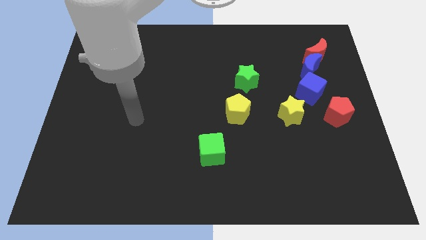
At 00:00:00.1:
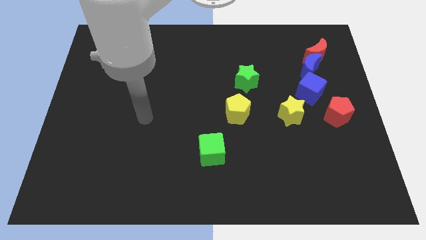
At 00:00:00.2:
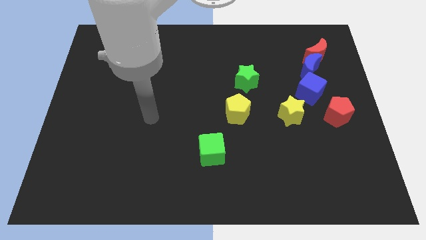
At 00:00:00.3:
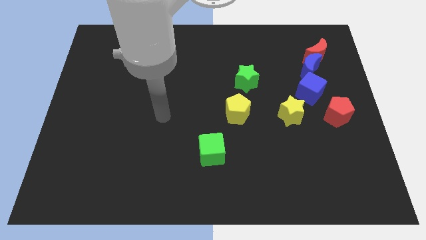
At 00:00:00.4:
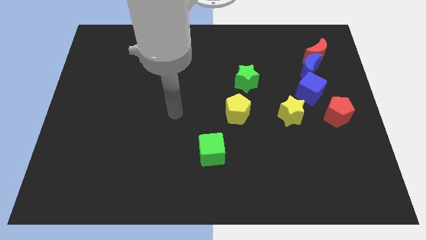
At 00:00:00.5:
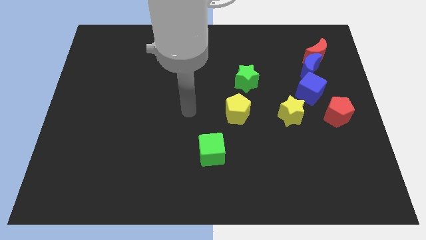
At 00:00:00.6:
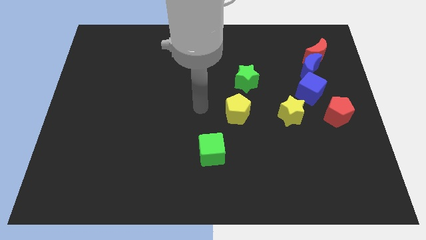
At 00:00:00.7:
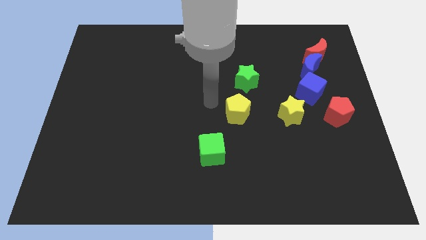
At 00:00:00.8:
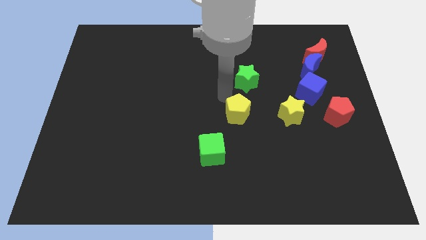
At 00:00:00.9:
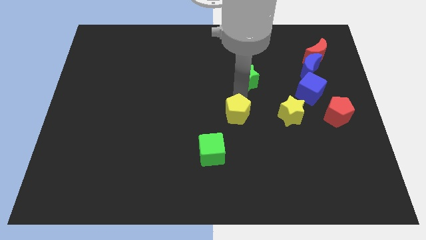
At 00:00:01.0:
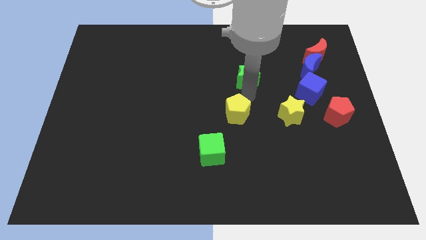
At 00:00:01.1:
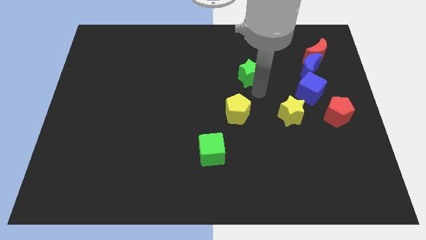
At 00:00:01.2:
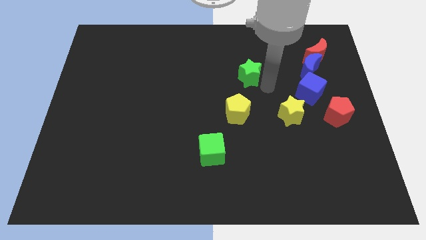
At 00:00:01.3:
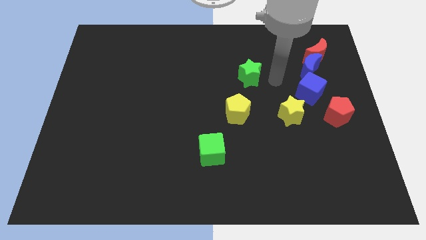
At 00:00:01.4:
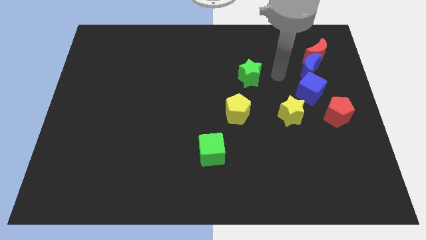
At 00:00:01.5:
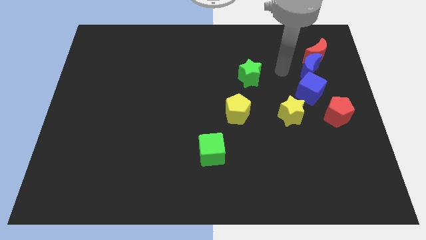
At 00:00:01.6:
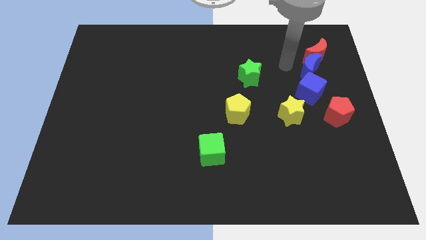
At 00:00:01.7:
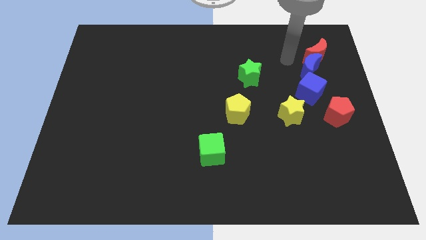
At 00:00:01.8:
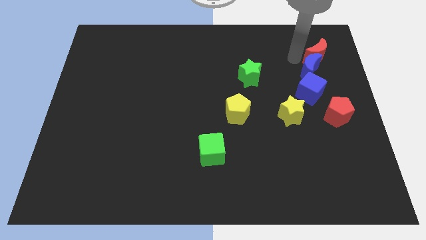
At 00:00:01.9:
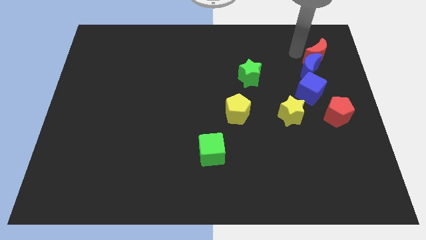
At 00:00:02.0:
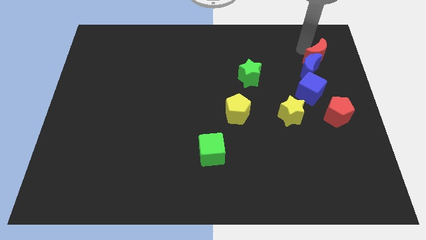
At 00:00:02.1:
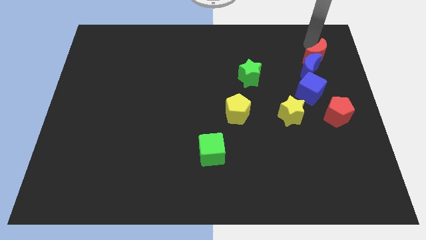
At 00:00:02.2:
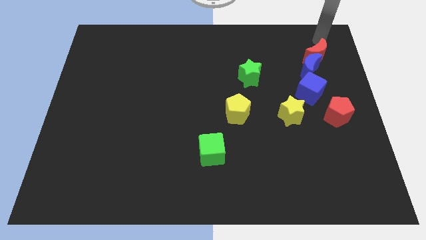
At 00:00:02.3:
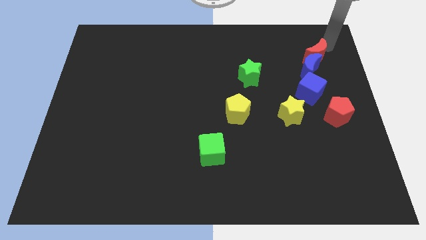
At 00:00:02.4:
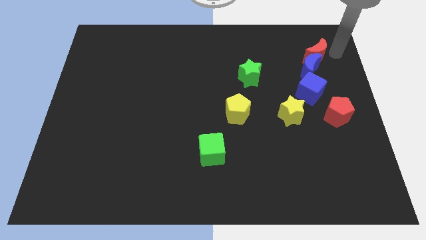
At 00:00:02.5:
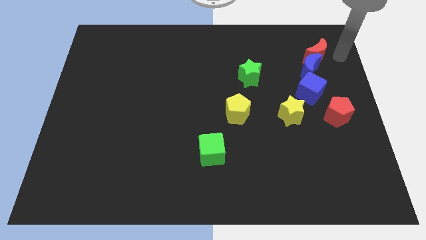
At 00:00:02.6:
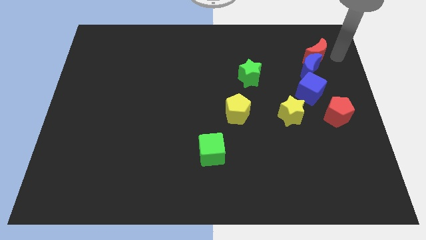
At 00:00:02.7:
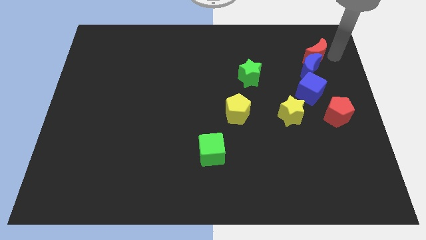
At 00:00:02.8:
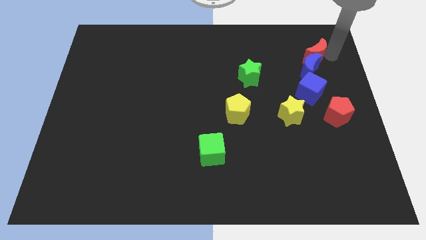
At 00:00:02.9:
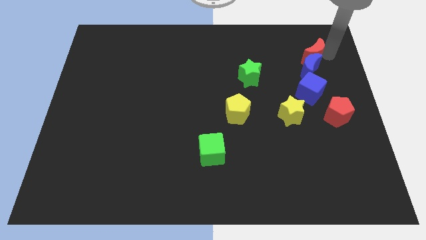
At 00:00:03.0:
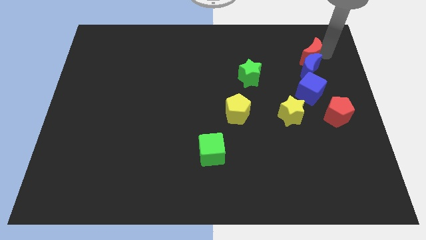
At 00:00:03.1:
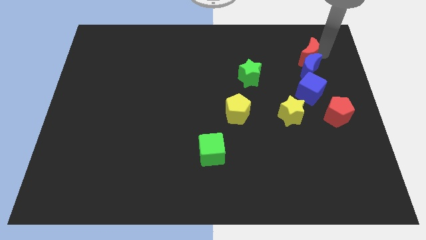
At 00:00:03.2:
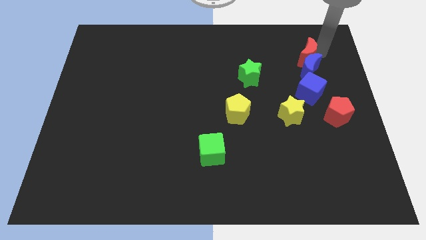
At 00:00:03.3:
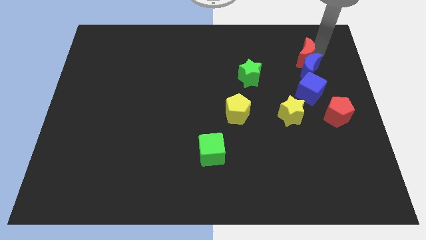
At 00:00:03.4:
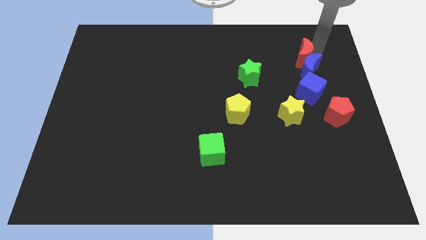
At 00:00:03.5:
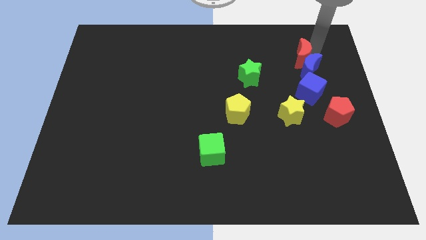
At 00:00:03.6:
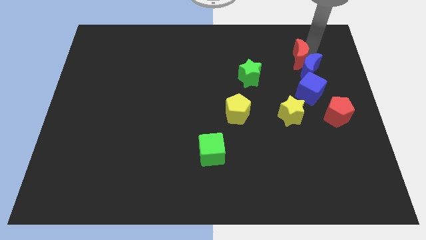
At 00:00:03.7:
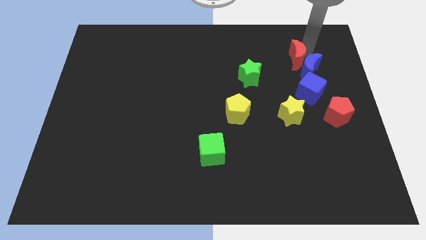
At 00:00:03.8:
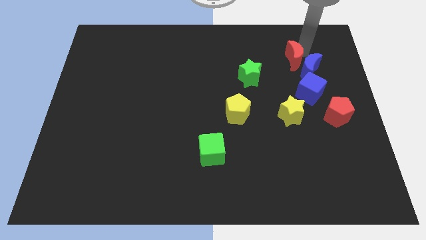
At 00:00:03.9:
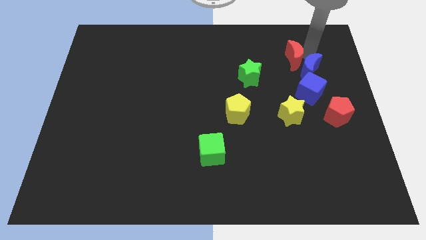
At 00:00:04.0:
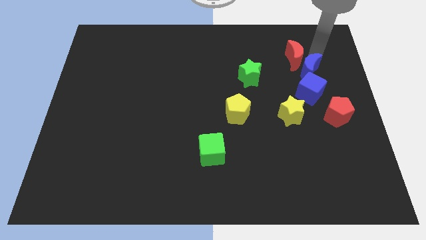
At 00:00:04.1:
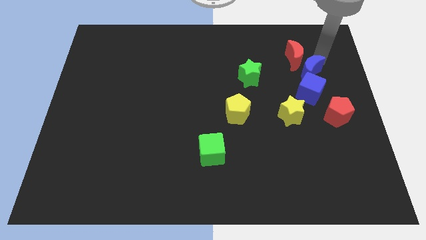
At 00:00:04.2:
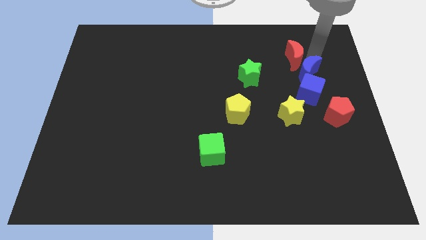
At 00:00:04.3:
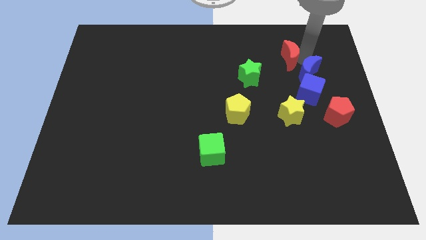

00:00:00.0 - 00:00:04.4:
slightly move the red moon to the left

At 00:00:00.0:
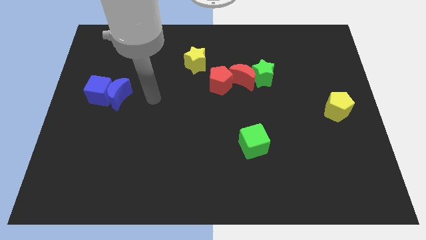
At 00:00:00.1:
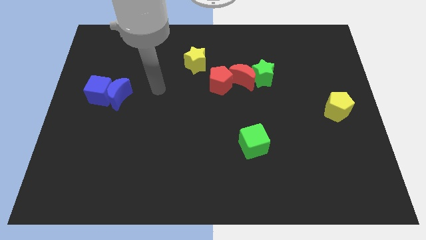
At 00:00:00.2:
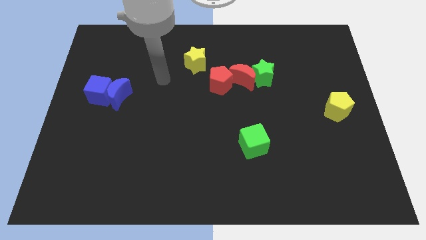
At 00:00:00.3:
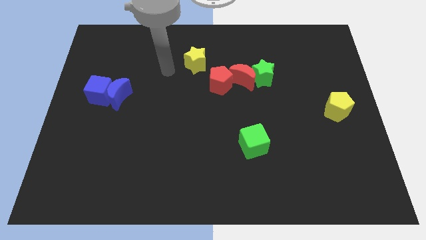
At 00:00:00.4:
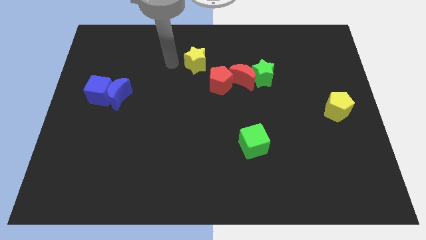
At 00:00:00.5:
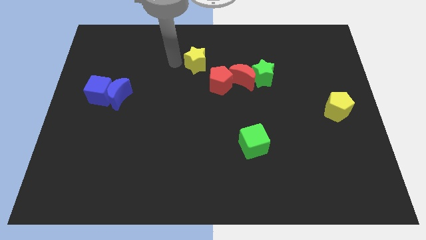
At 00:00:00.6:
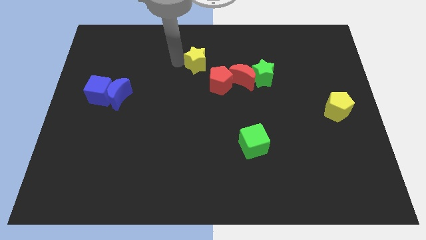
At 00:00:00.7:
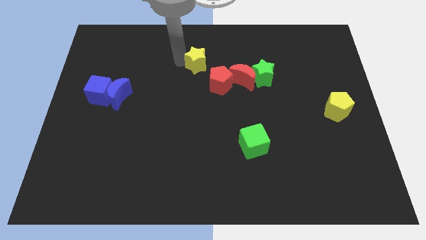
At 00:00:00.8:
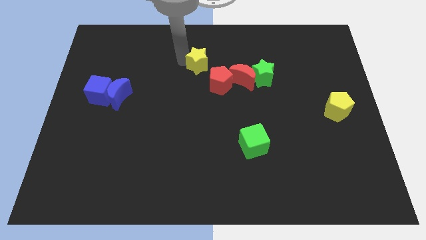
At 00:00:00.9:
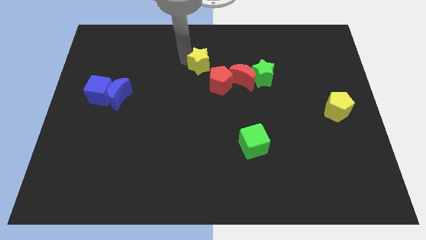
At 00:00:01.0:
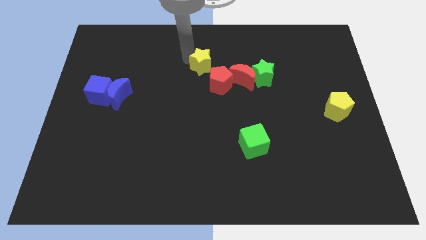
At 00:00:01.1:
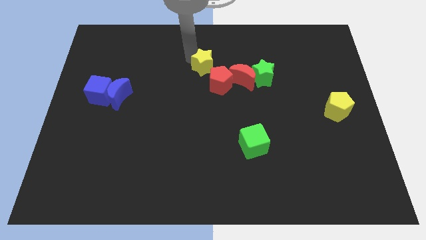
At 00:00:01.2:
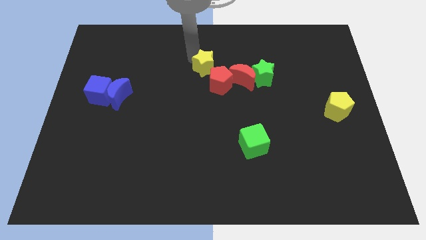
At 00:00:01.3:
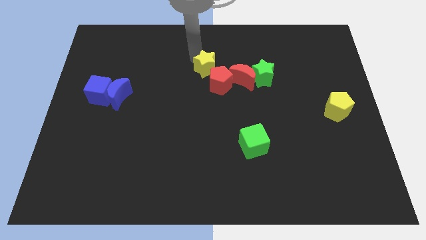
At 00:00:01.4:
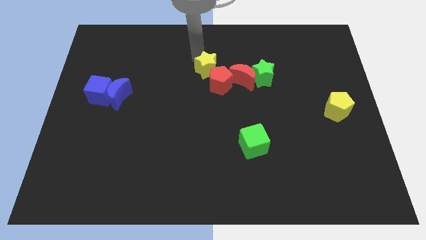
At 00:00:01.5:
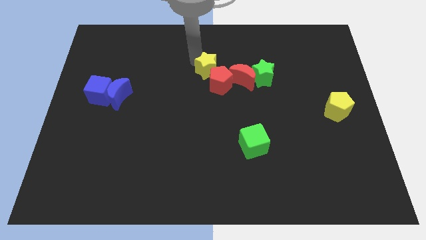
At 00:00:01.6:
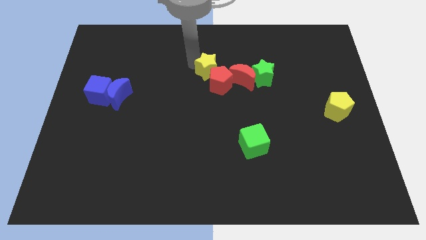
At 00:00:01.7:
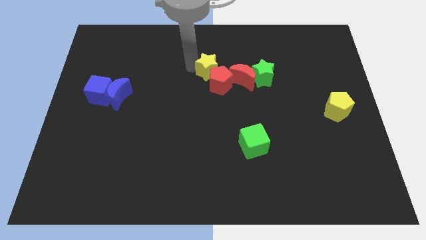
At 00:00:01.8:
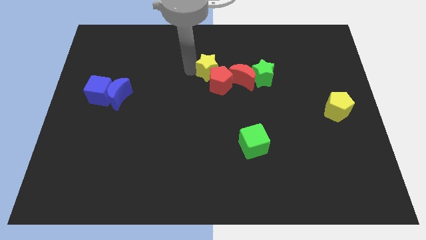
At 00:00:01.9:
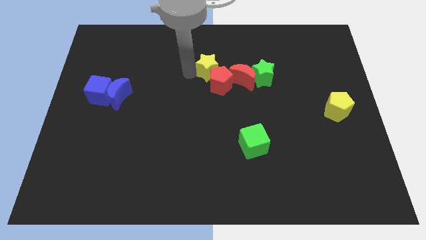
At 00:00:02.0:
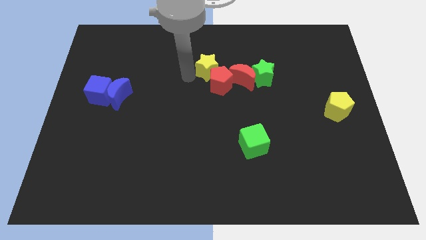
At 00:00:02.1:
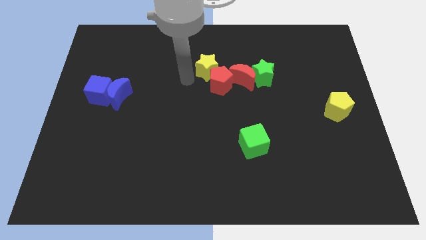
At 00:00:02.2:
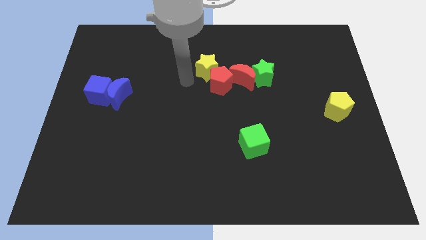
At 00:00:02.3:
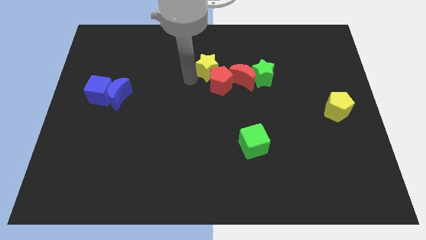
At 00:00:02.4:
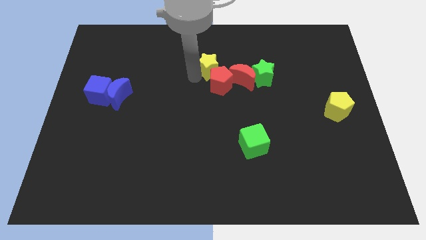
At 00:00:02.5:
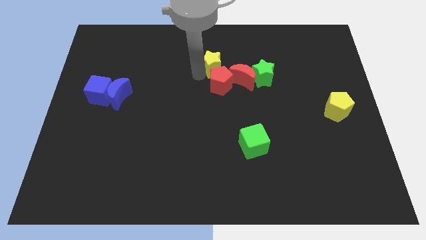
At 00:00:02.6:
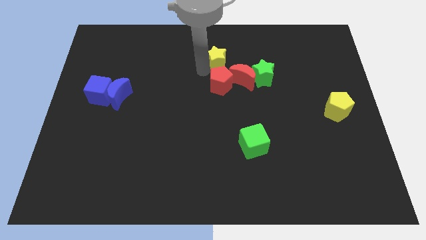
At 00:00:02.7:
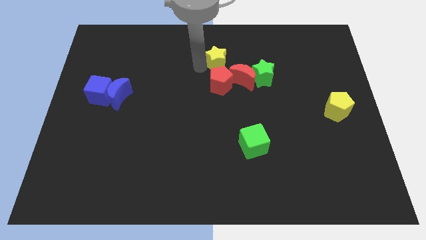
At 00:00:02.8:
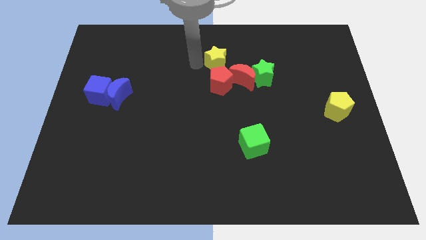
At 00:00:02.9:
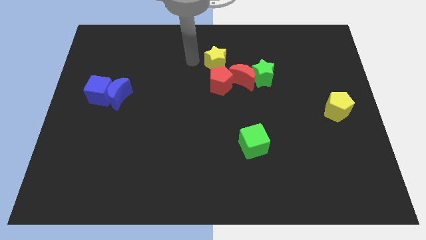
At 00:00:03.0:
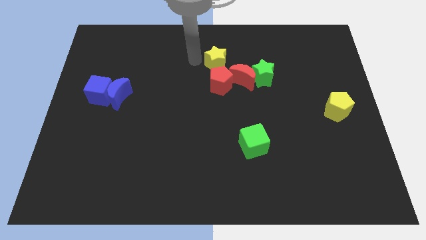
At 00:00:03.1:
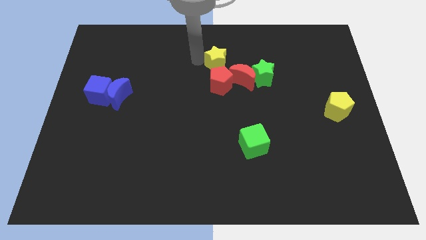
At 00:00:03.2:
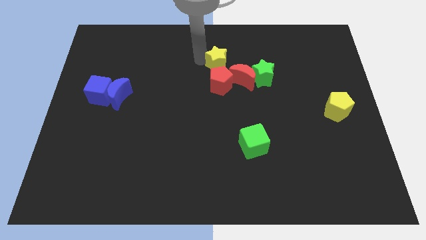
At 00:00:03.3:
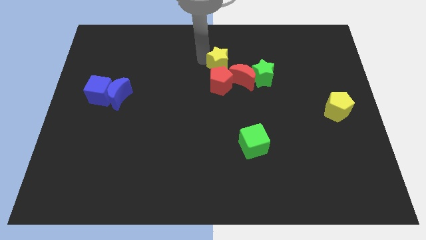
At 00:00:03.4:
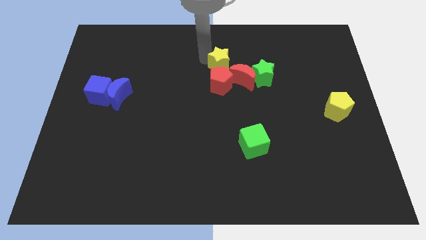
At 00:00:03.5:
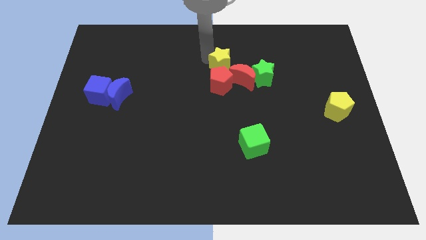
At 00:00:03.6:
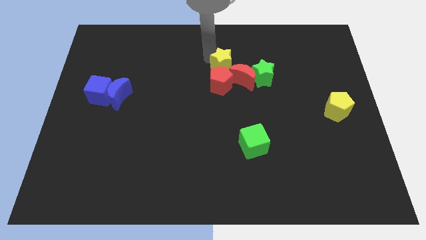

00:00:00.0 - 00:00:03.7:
slightly push the yellow star to the right
